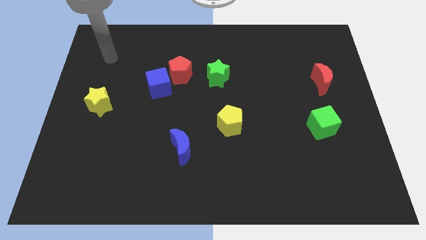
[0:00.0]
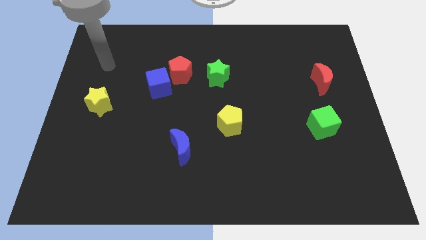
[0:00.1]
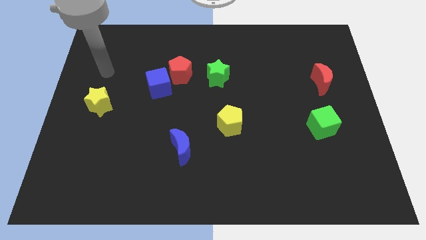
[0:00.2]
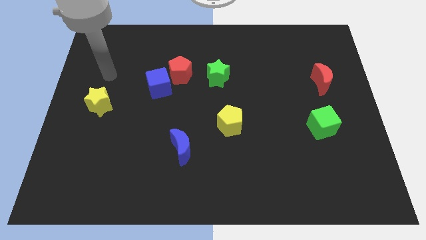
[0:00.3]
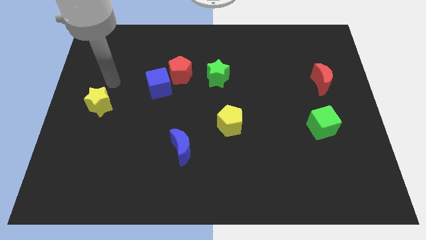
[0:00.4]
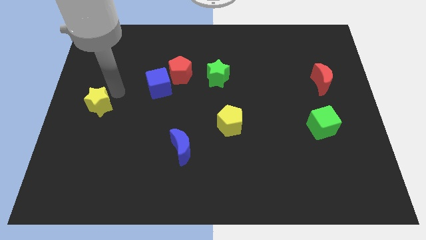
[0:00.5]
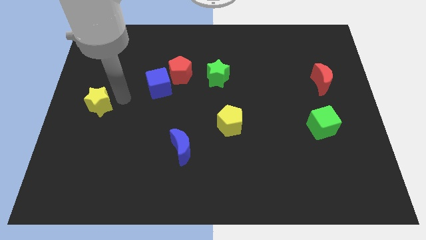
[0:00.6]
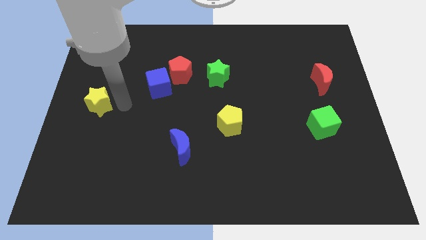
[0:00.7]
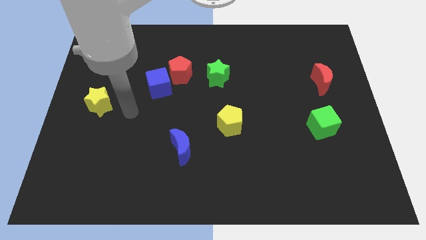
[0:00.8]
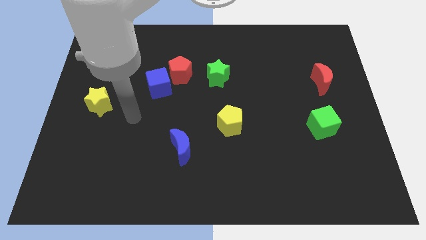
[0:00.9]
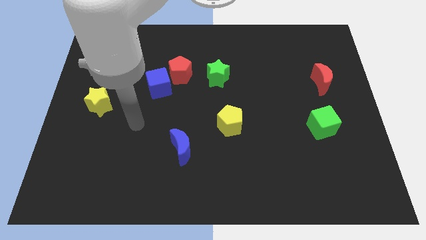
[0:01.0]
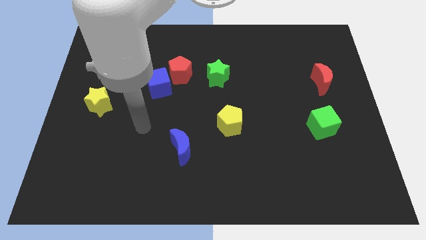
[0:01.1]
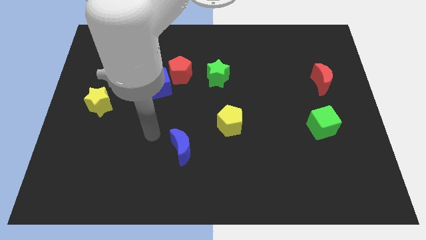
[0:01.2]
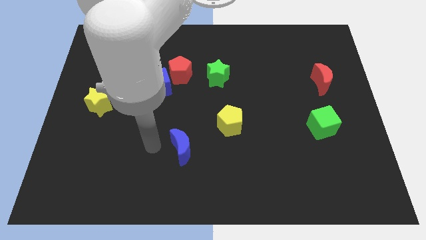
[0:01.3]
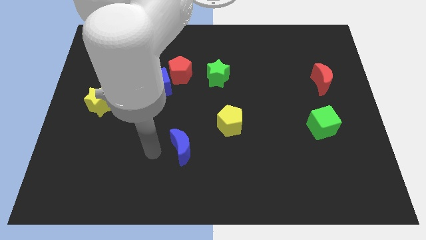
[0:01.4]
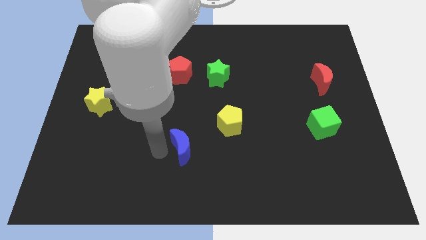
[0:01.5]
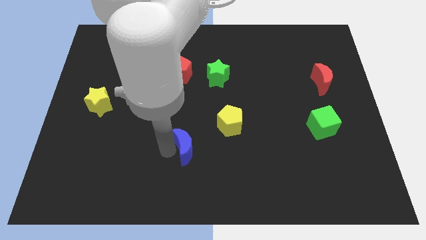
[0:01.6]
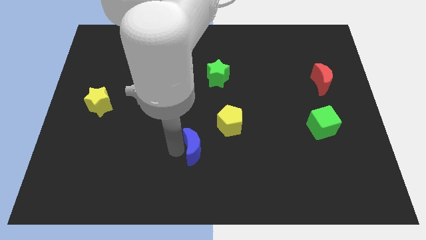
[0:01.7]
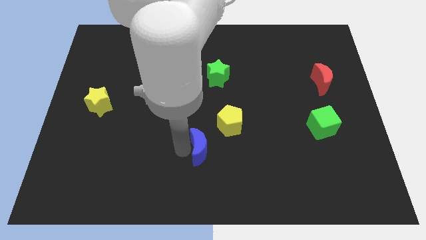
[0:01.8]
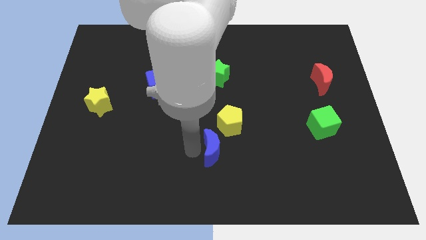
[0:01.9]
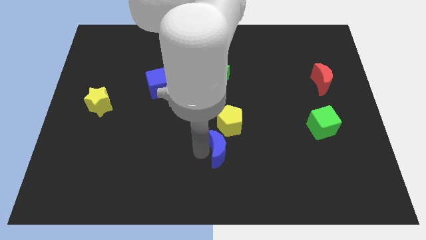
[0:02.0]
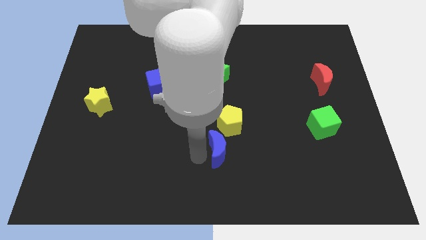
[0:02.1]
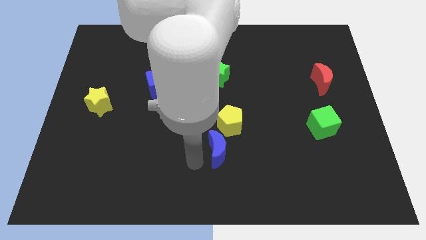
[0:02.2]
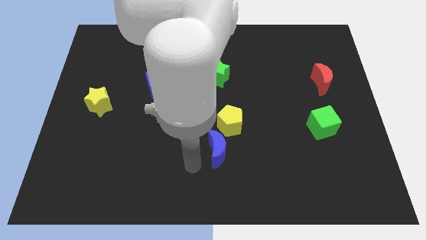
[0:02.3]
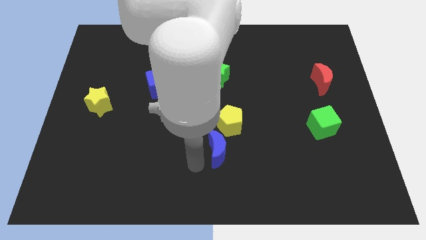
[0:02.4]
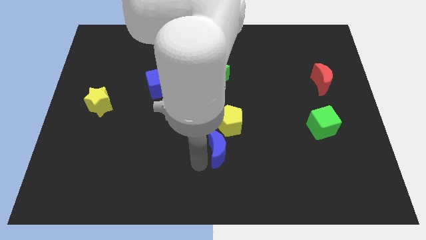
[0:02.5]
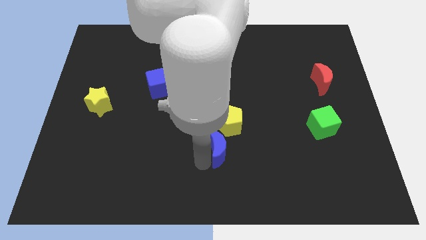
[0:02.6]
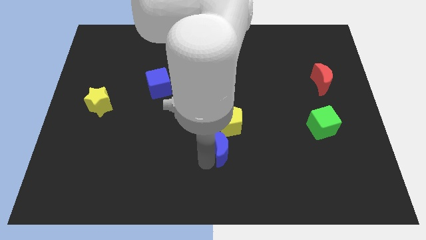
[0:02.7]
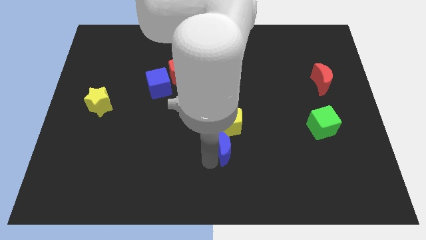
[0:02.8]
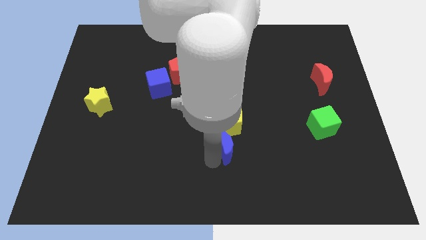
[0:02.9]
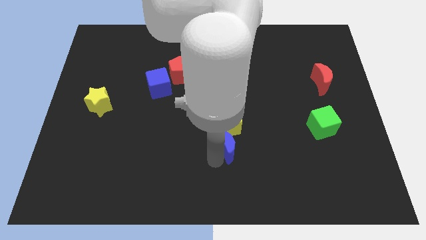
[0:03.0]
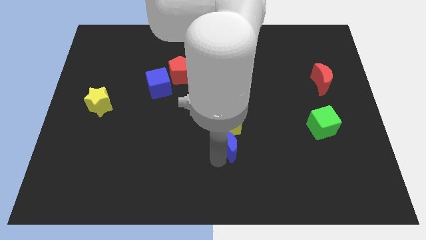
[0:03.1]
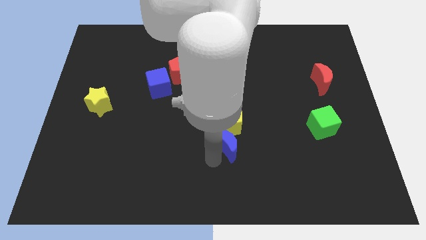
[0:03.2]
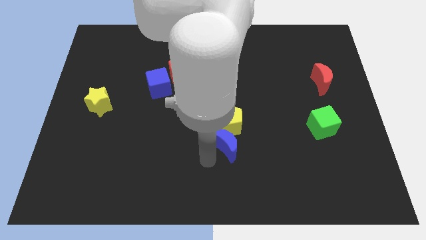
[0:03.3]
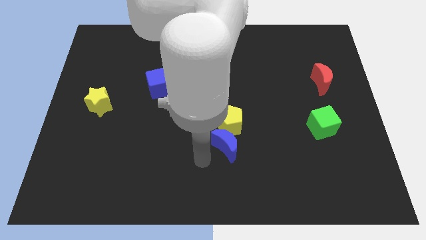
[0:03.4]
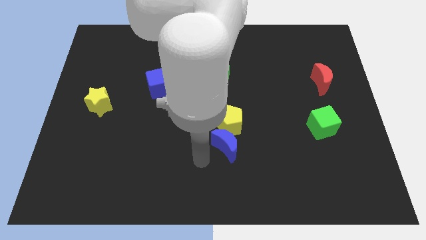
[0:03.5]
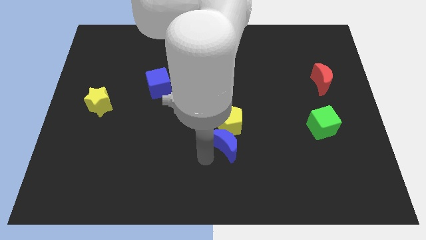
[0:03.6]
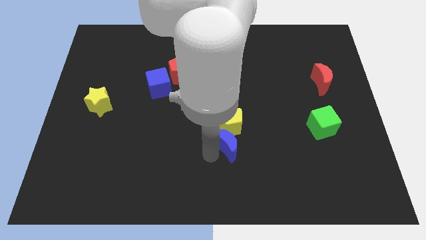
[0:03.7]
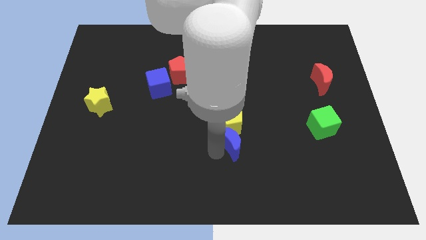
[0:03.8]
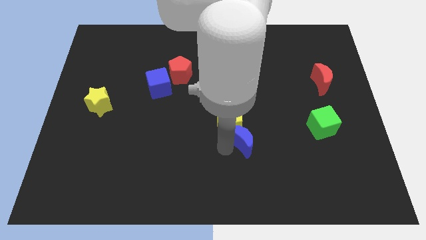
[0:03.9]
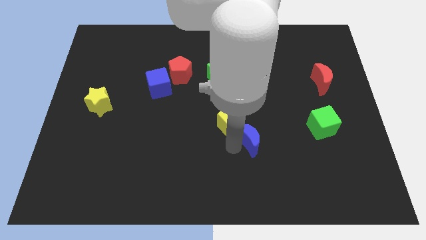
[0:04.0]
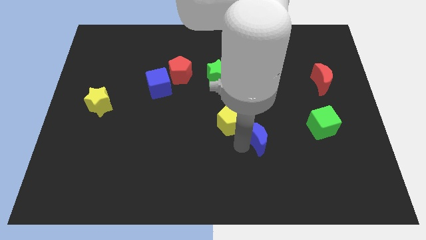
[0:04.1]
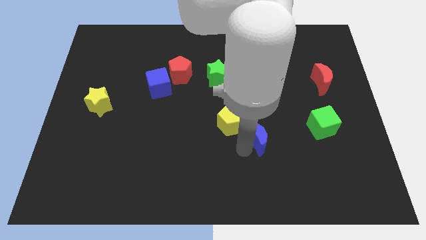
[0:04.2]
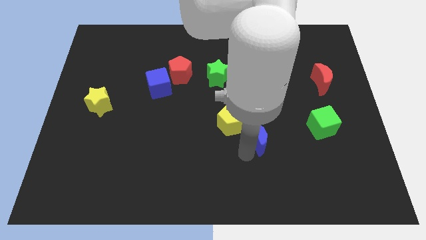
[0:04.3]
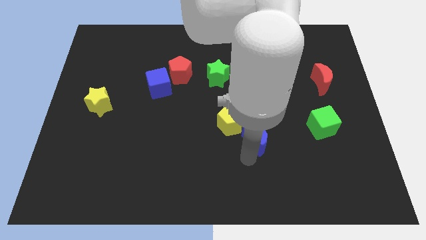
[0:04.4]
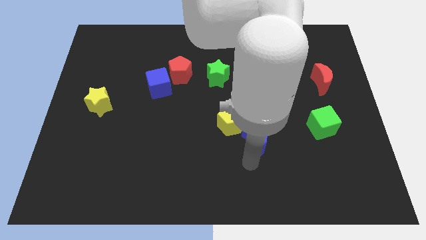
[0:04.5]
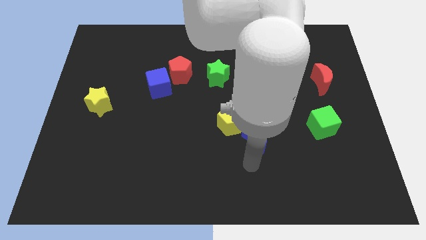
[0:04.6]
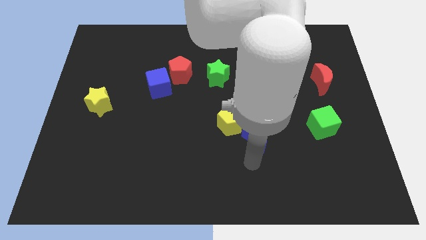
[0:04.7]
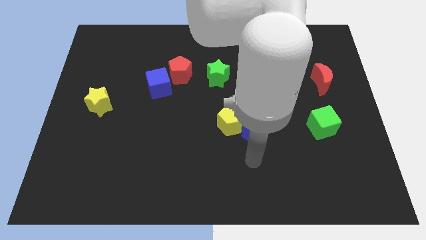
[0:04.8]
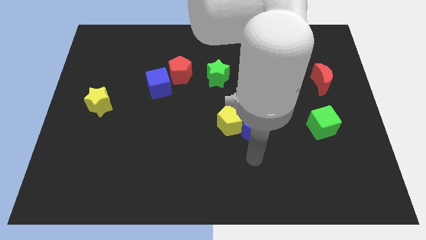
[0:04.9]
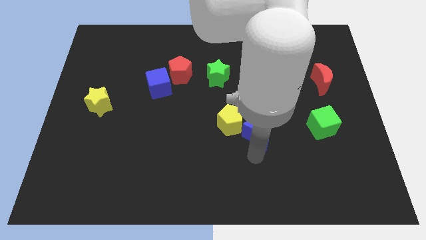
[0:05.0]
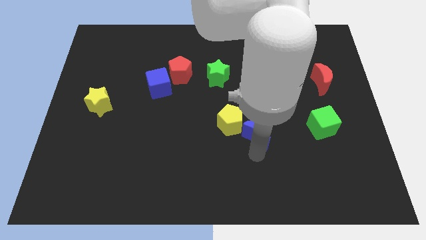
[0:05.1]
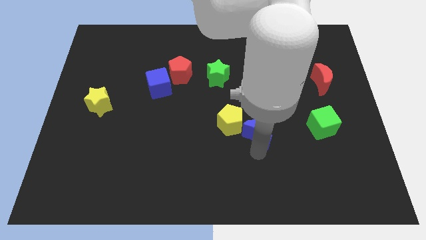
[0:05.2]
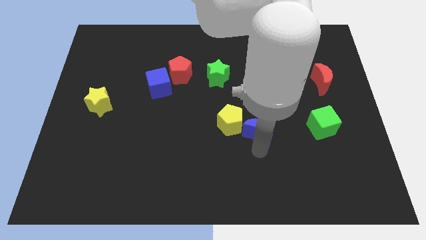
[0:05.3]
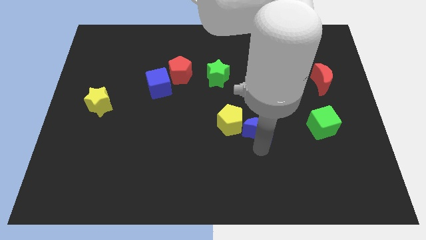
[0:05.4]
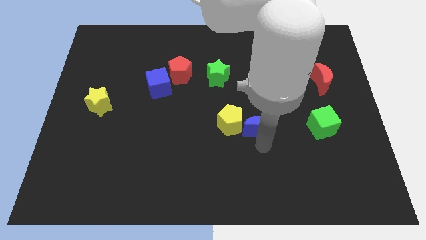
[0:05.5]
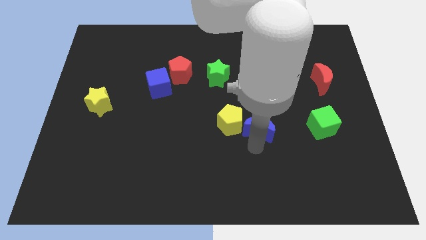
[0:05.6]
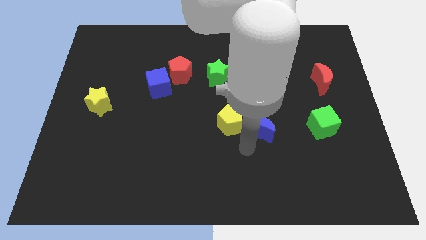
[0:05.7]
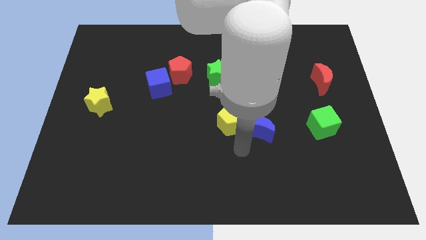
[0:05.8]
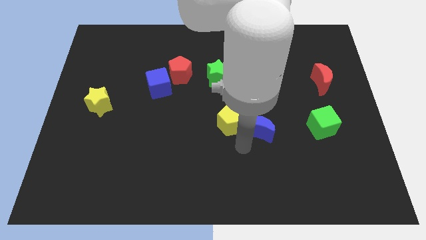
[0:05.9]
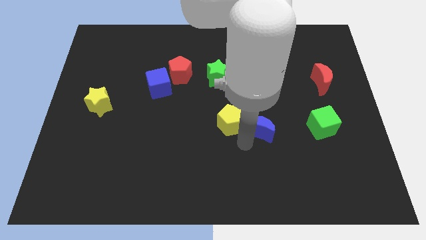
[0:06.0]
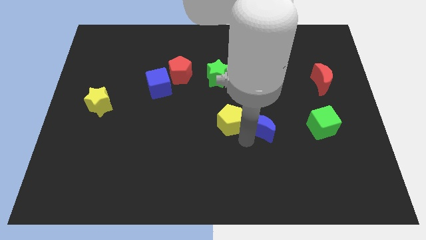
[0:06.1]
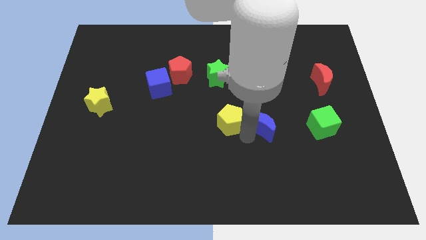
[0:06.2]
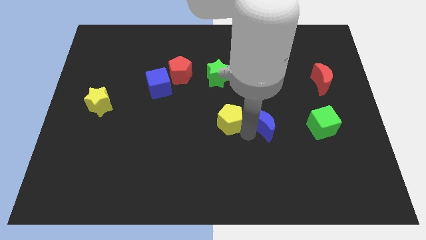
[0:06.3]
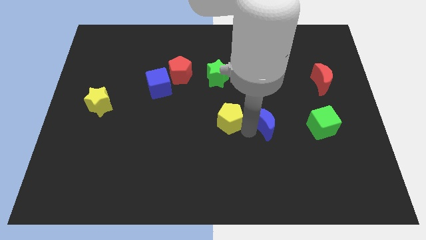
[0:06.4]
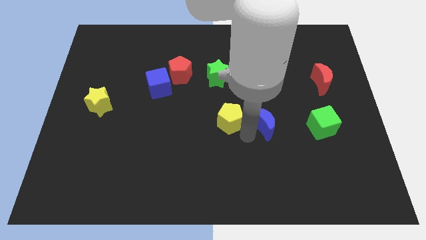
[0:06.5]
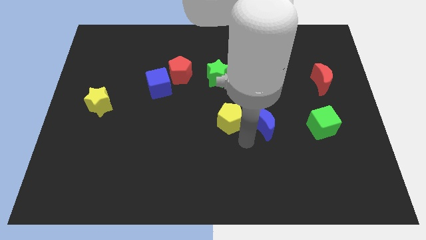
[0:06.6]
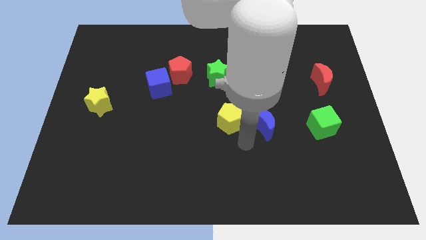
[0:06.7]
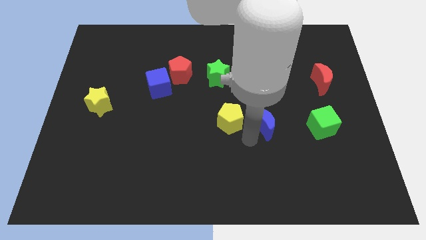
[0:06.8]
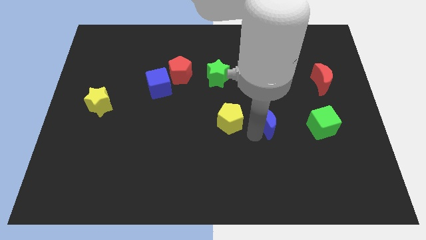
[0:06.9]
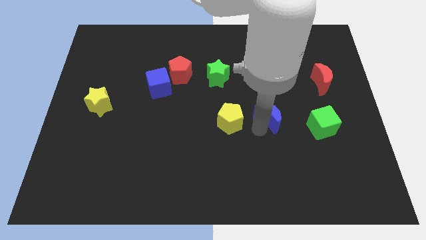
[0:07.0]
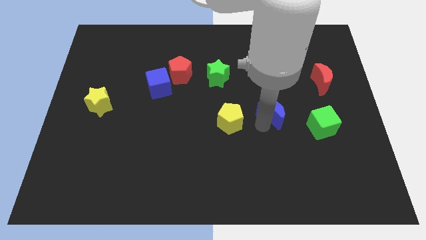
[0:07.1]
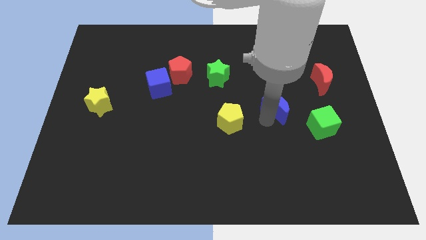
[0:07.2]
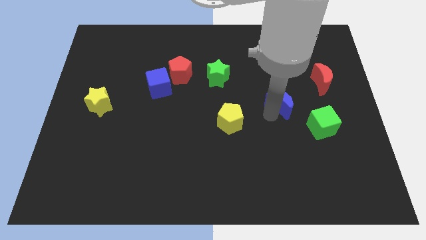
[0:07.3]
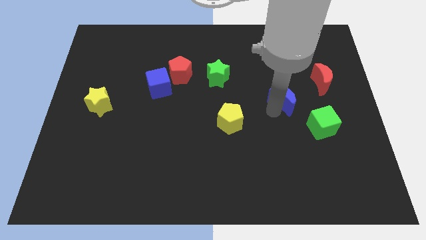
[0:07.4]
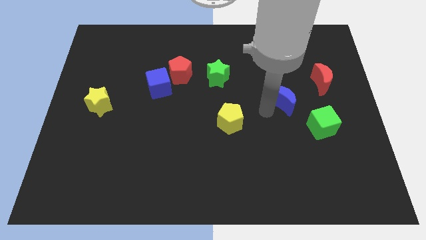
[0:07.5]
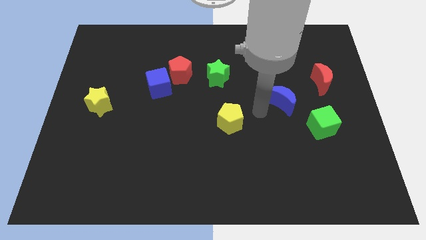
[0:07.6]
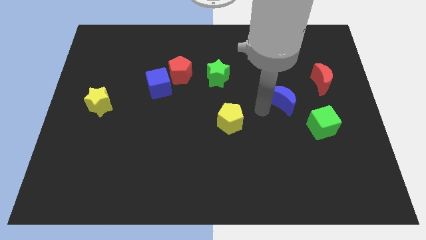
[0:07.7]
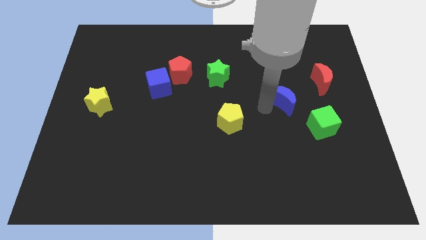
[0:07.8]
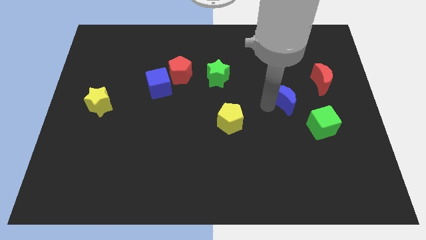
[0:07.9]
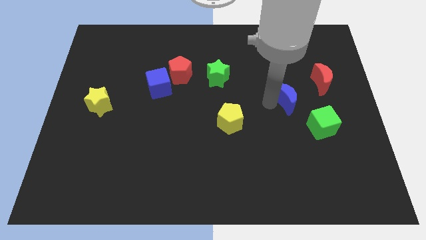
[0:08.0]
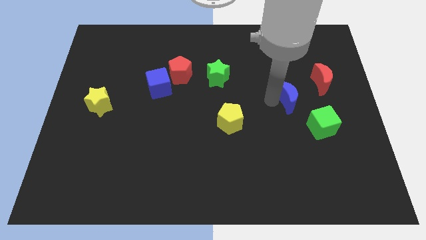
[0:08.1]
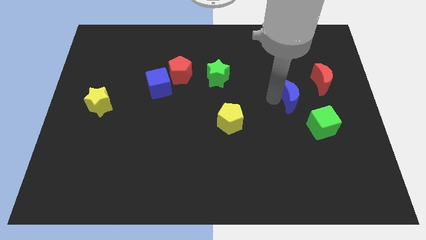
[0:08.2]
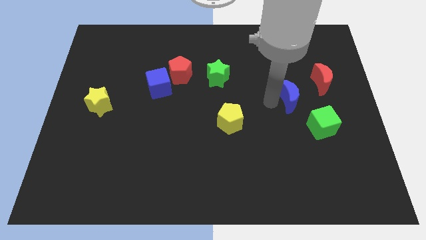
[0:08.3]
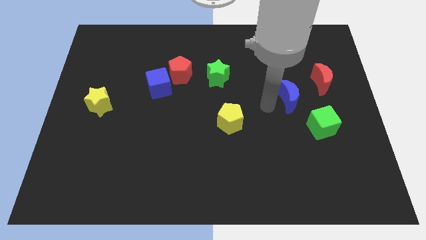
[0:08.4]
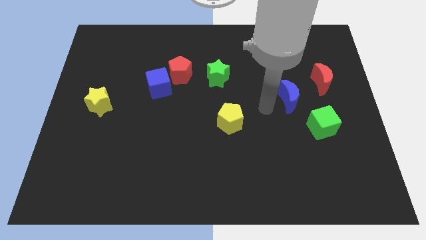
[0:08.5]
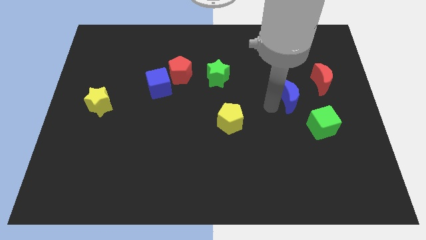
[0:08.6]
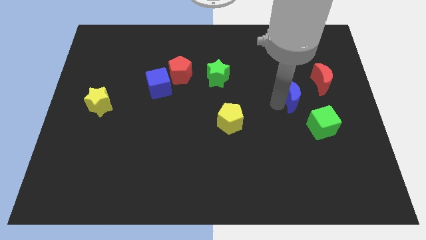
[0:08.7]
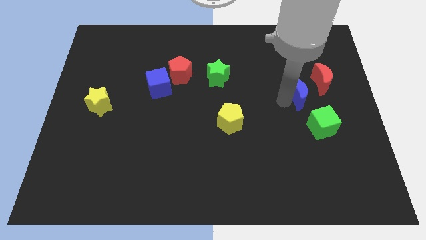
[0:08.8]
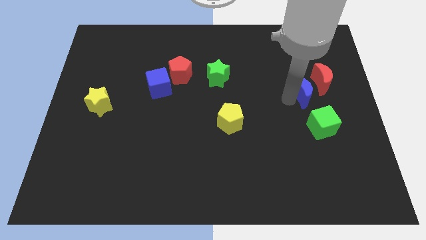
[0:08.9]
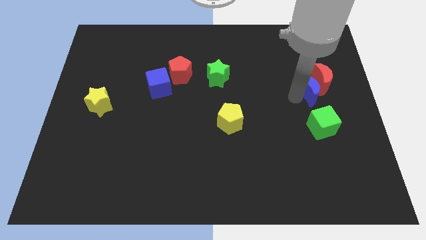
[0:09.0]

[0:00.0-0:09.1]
push the blue moon next to the red moon
